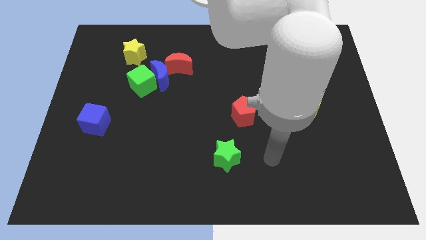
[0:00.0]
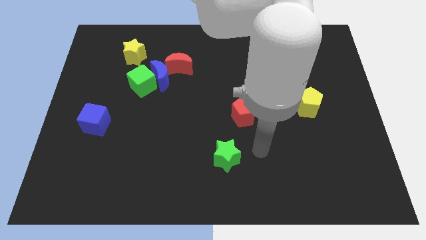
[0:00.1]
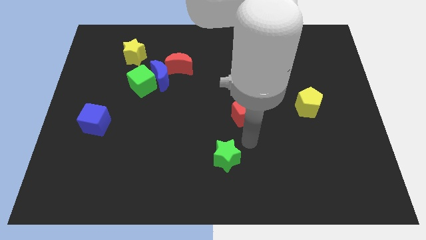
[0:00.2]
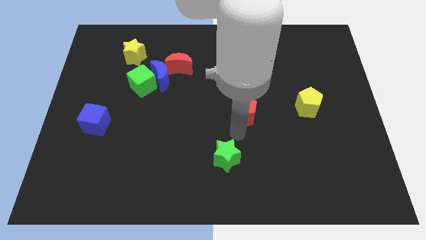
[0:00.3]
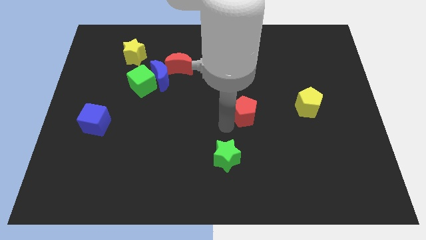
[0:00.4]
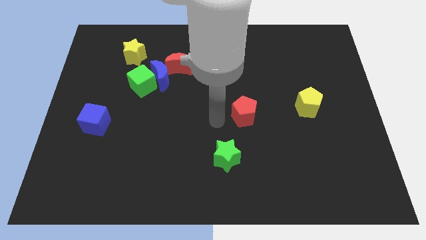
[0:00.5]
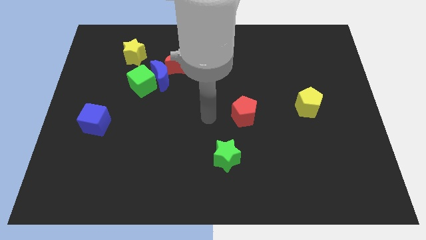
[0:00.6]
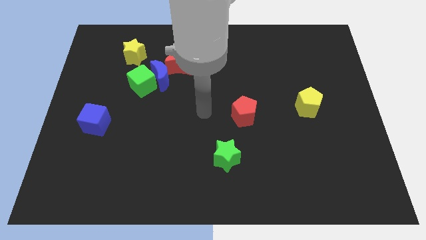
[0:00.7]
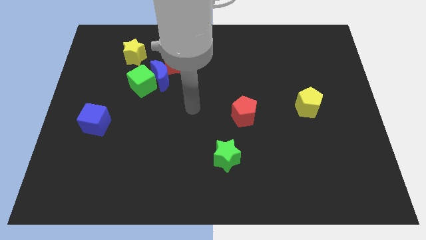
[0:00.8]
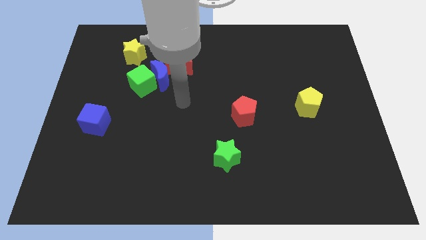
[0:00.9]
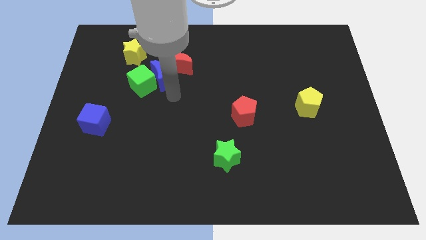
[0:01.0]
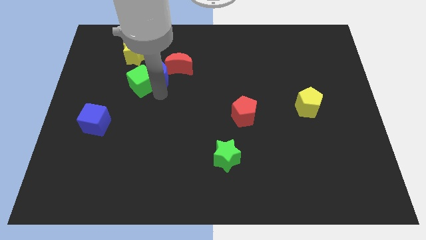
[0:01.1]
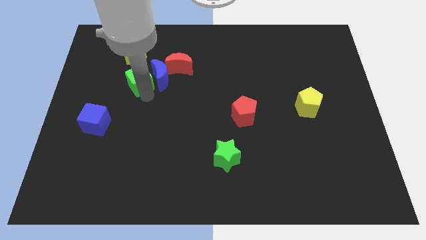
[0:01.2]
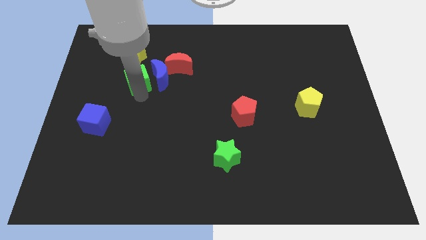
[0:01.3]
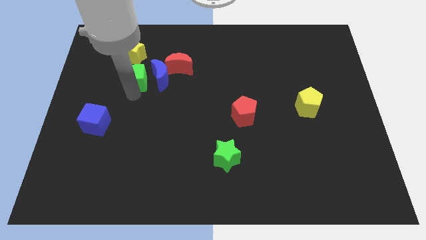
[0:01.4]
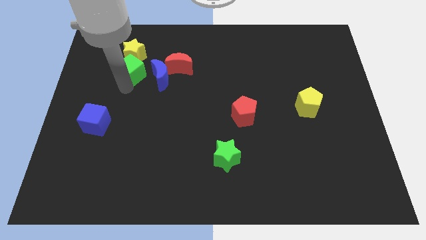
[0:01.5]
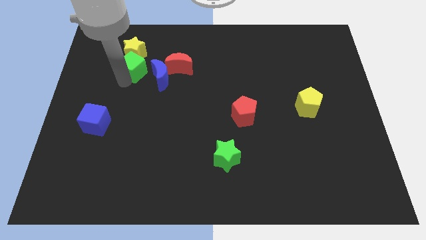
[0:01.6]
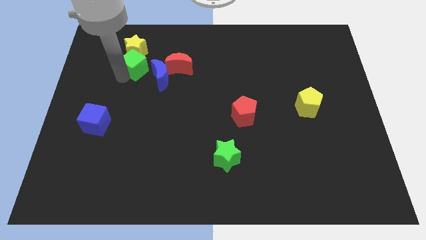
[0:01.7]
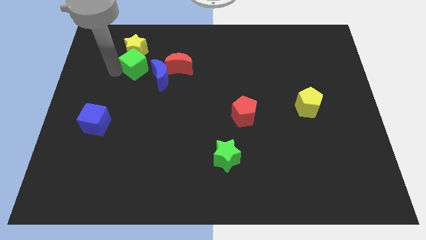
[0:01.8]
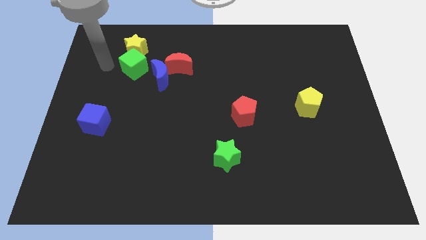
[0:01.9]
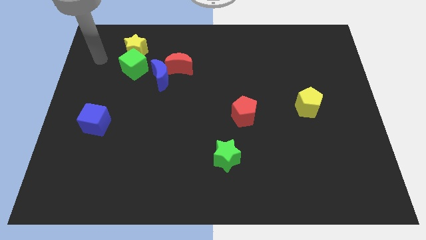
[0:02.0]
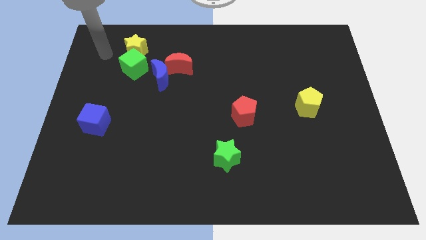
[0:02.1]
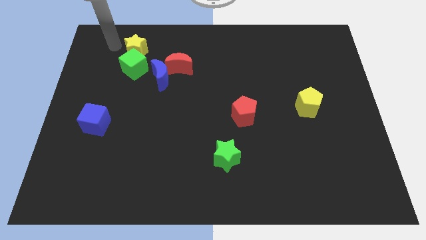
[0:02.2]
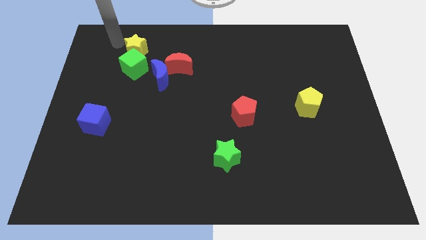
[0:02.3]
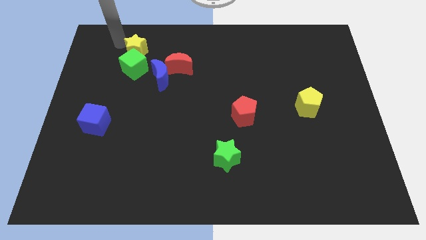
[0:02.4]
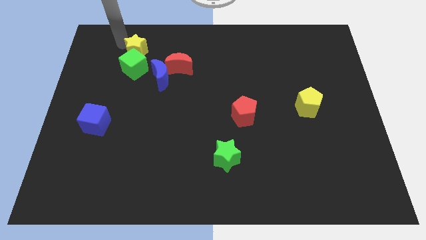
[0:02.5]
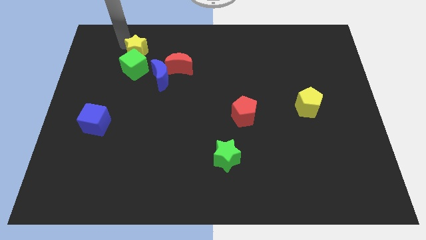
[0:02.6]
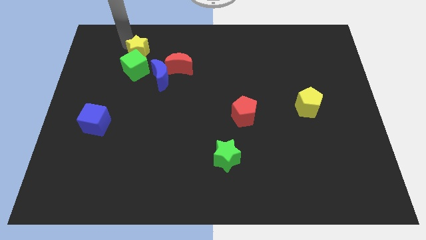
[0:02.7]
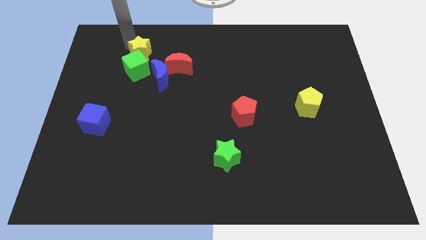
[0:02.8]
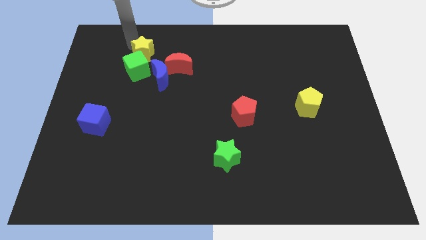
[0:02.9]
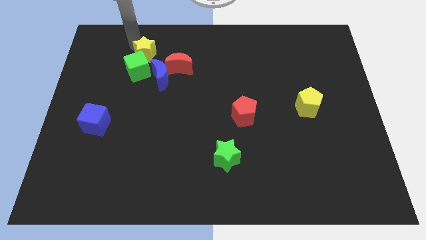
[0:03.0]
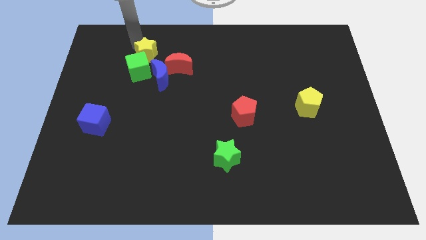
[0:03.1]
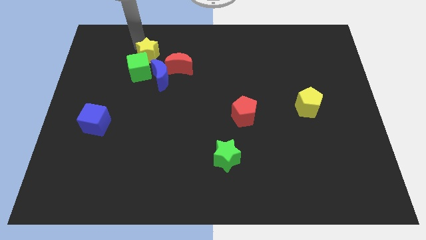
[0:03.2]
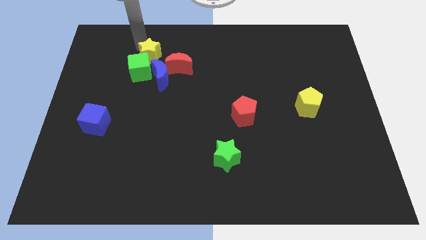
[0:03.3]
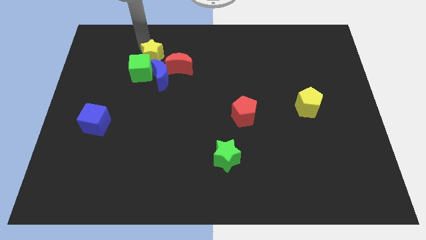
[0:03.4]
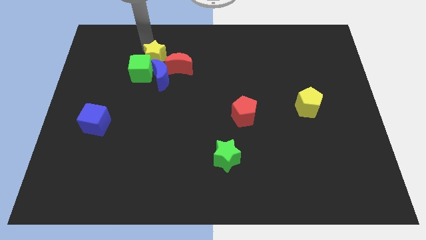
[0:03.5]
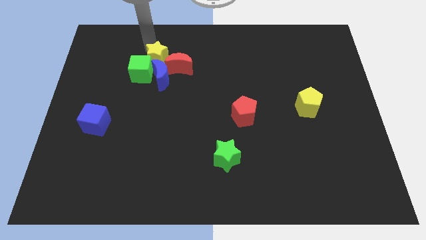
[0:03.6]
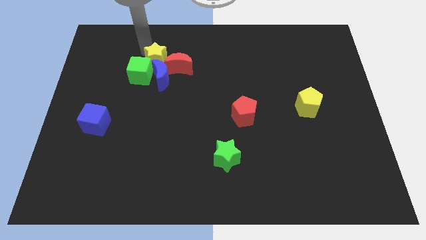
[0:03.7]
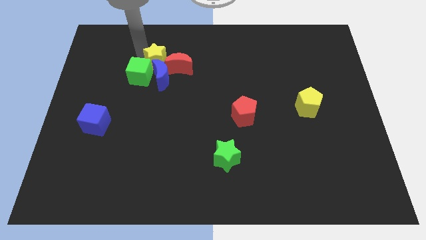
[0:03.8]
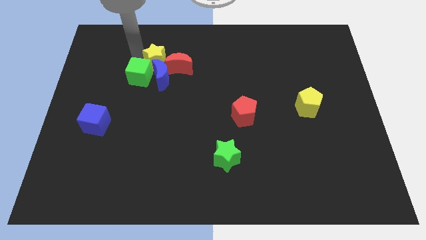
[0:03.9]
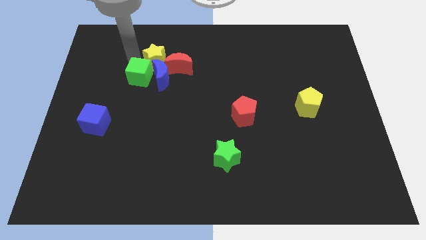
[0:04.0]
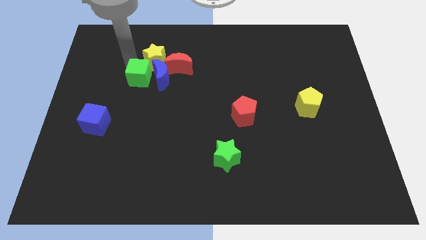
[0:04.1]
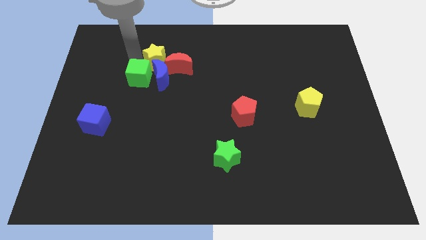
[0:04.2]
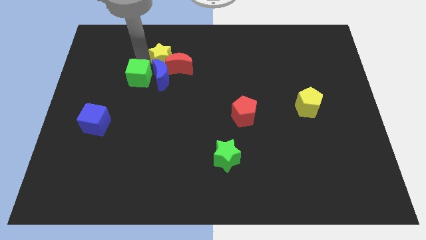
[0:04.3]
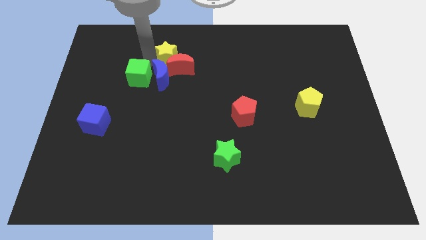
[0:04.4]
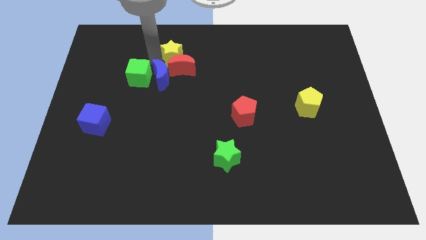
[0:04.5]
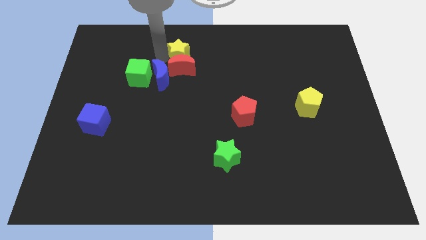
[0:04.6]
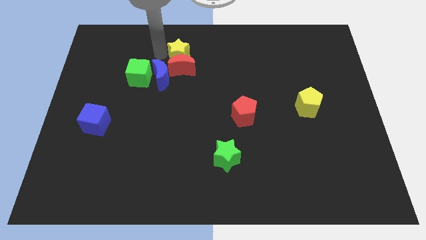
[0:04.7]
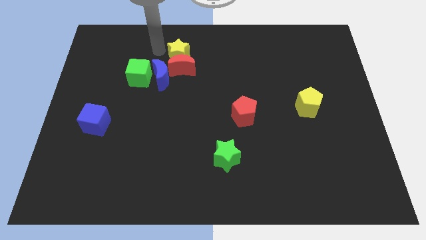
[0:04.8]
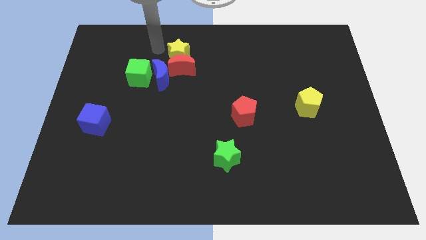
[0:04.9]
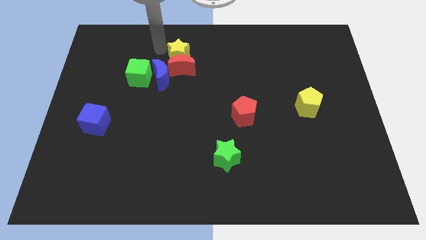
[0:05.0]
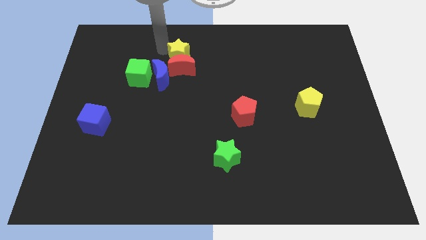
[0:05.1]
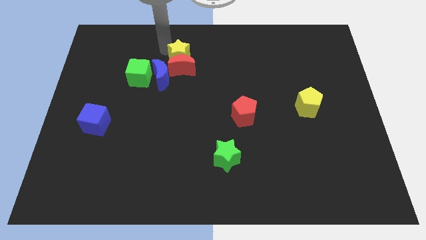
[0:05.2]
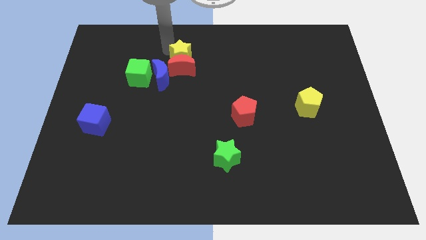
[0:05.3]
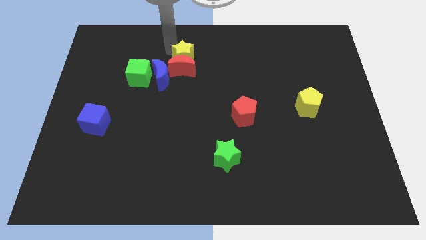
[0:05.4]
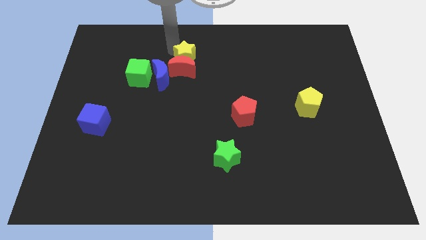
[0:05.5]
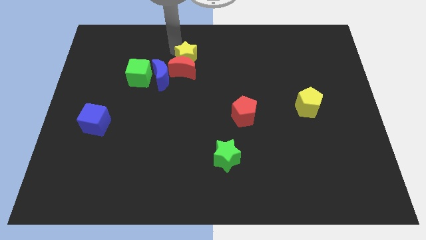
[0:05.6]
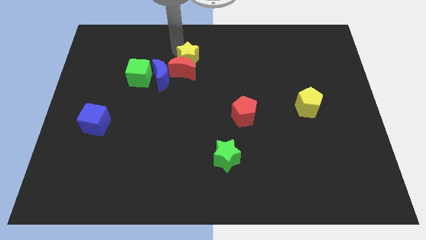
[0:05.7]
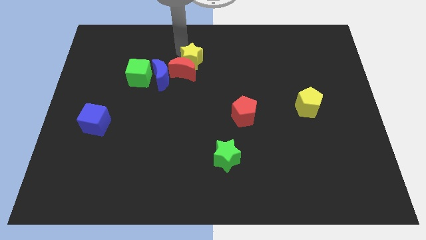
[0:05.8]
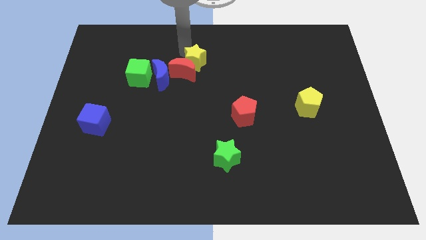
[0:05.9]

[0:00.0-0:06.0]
put the yellow star to the right of the red moon

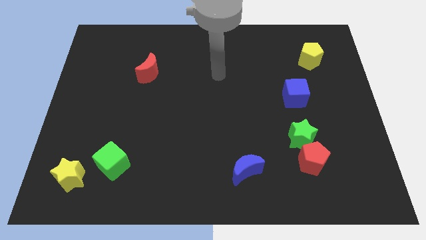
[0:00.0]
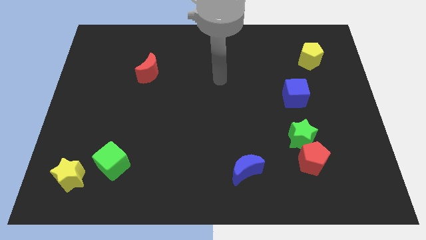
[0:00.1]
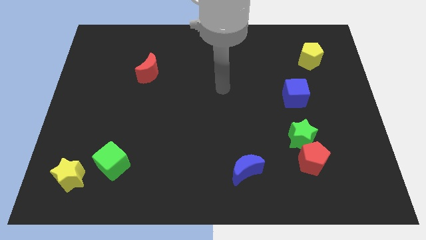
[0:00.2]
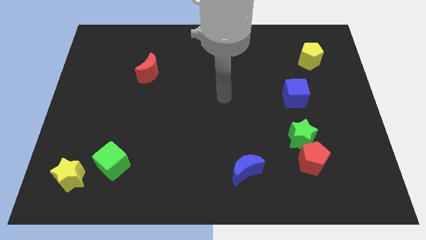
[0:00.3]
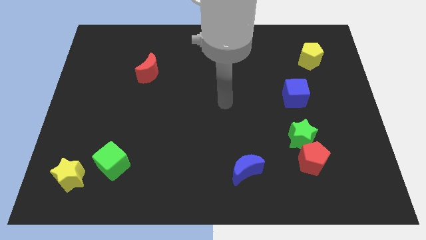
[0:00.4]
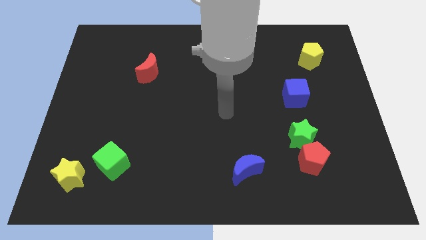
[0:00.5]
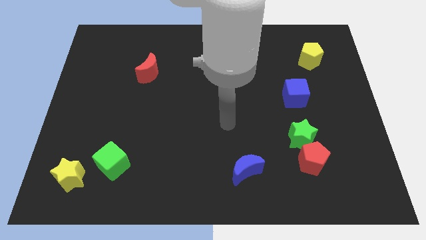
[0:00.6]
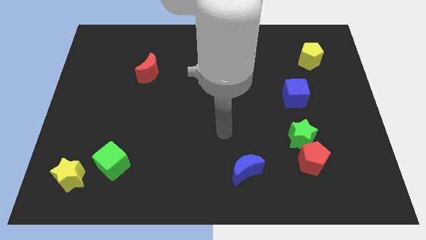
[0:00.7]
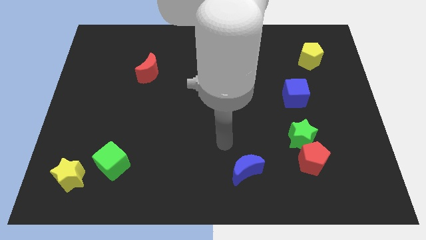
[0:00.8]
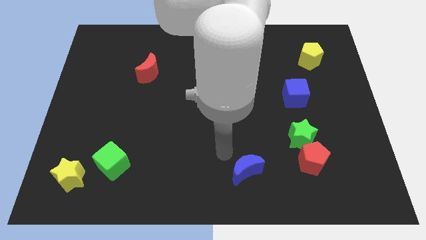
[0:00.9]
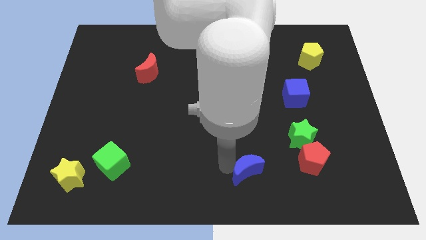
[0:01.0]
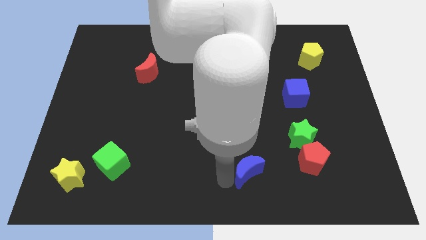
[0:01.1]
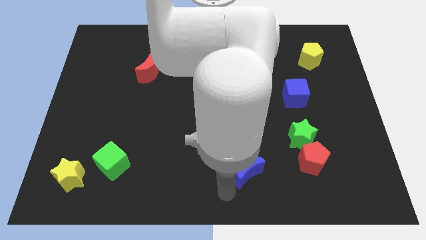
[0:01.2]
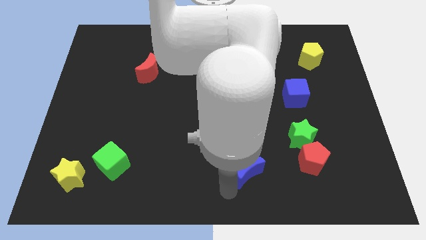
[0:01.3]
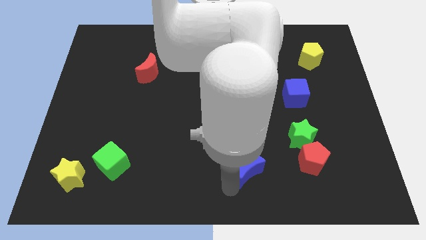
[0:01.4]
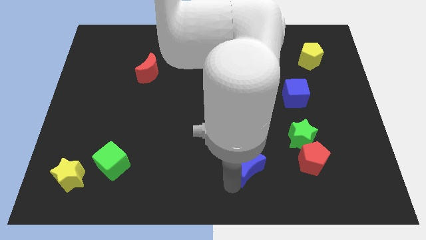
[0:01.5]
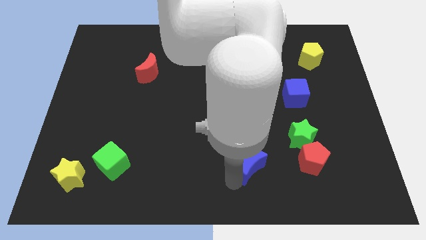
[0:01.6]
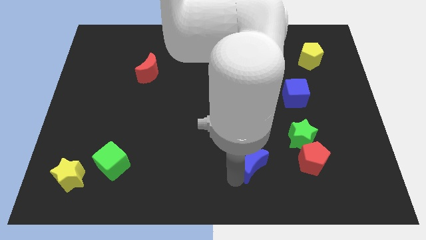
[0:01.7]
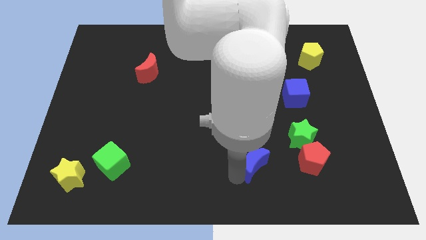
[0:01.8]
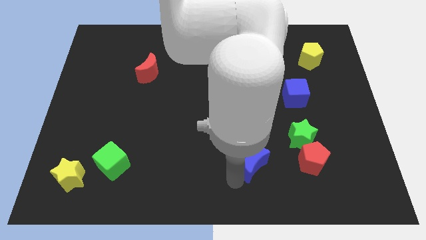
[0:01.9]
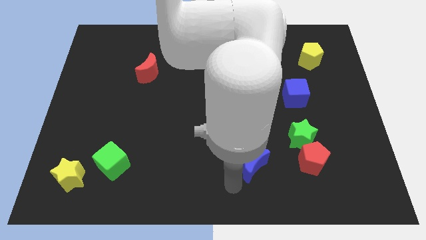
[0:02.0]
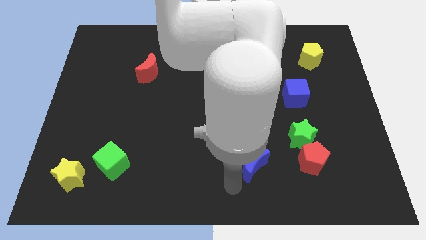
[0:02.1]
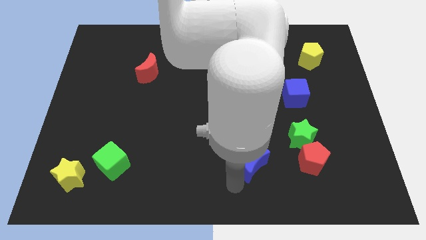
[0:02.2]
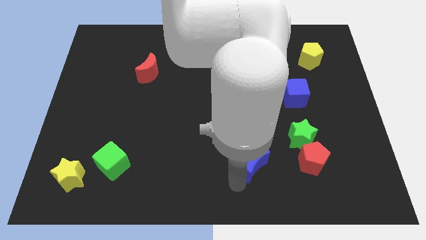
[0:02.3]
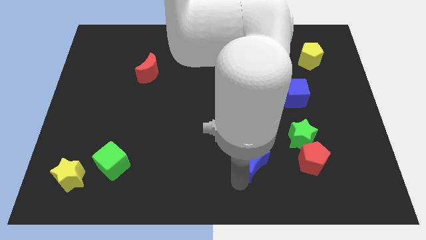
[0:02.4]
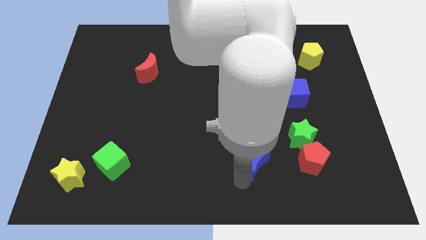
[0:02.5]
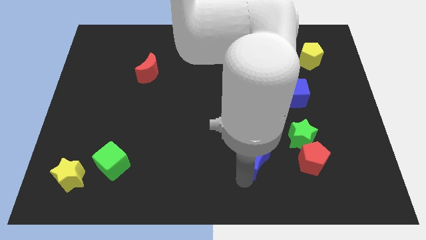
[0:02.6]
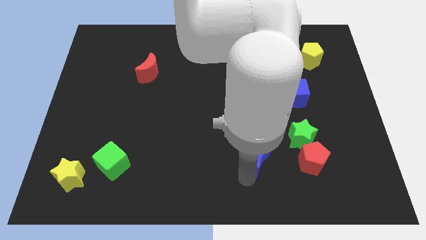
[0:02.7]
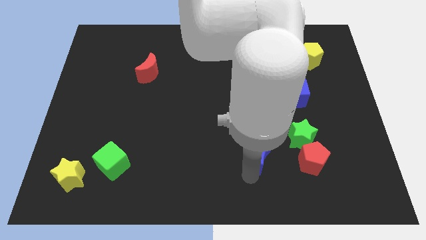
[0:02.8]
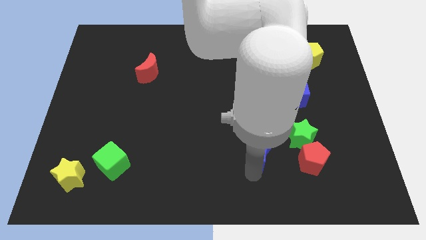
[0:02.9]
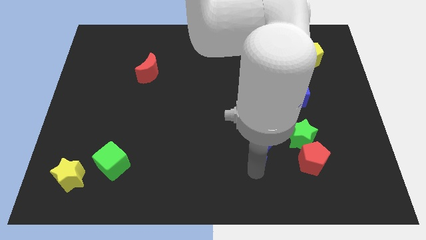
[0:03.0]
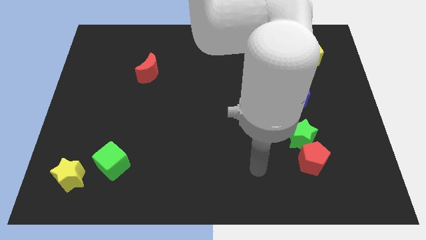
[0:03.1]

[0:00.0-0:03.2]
put the blue moon diagonally up and to the left of the red pentagon
